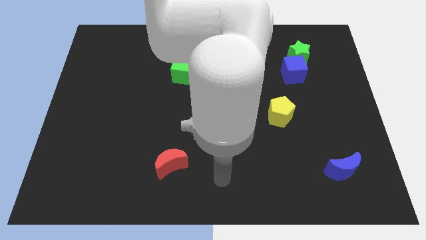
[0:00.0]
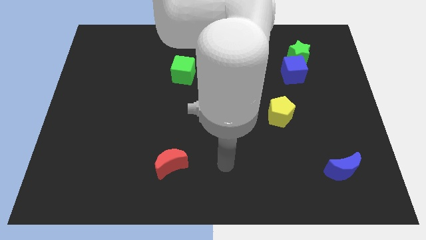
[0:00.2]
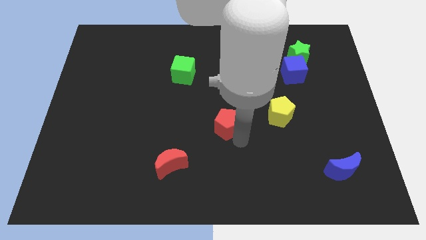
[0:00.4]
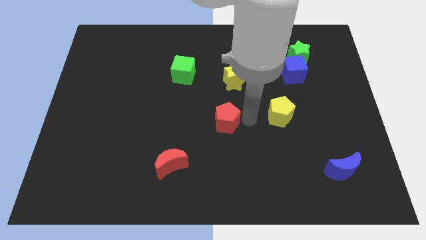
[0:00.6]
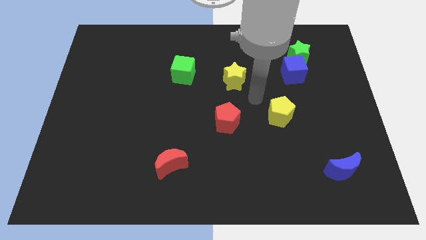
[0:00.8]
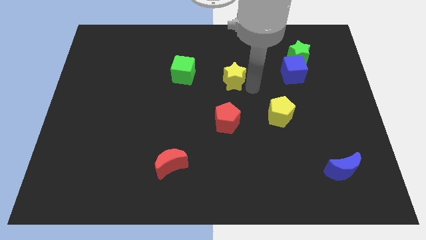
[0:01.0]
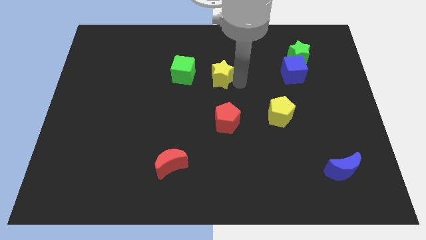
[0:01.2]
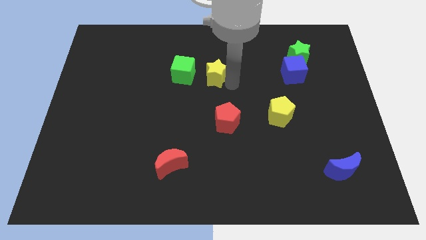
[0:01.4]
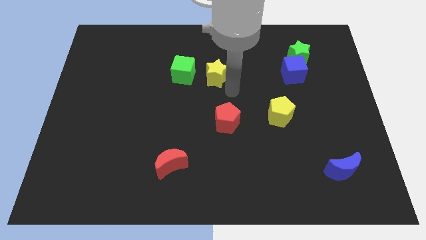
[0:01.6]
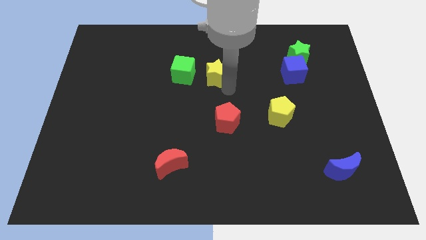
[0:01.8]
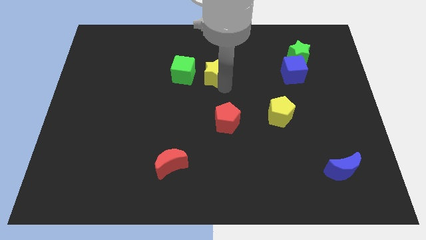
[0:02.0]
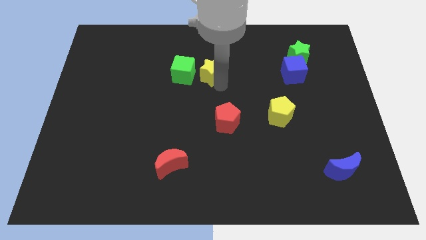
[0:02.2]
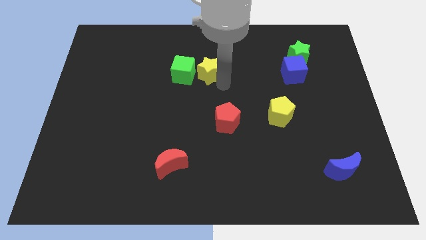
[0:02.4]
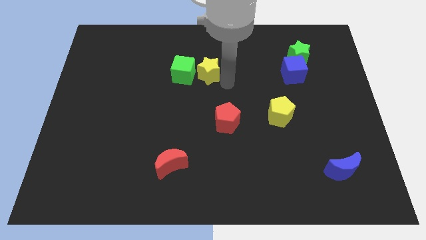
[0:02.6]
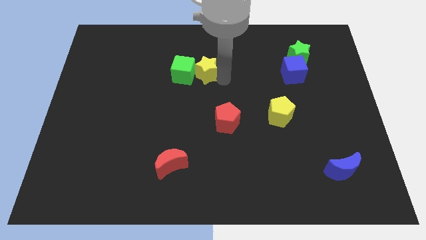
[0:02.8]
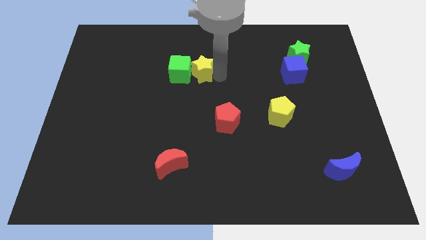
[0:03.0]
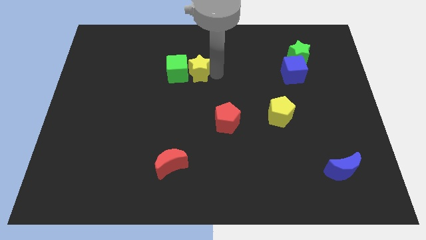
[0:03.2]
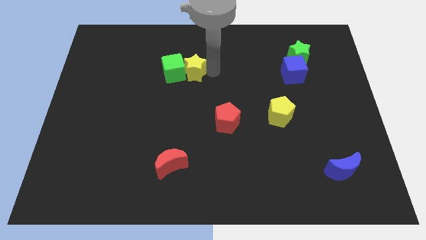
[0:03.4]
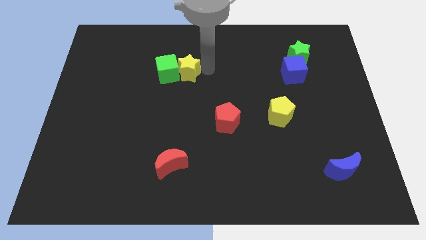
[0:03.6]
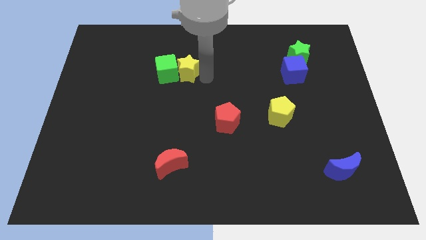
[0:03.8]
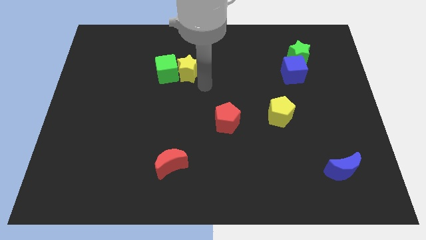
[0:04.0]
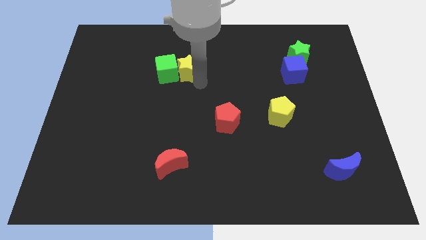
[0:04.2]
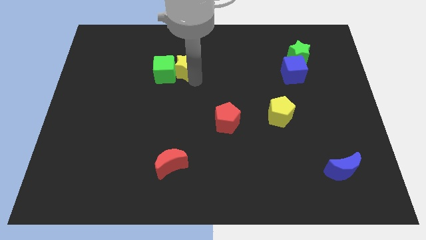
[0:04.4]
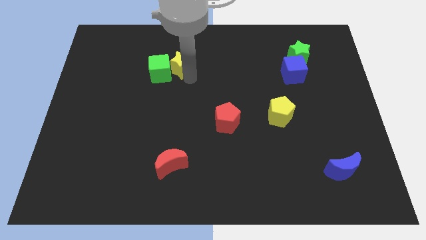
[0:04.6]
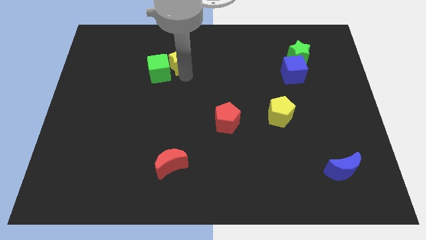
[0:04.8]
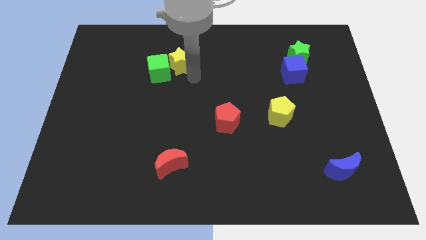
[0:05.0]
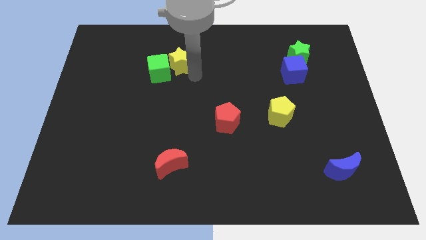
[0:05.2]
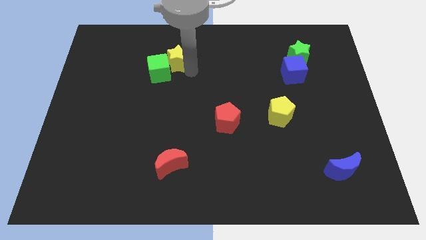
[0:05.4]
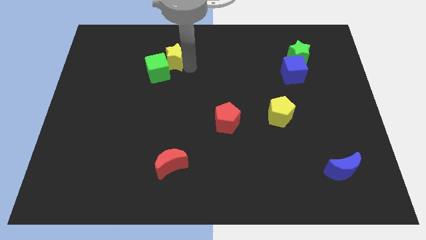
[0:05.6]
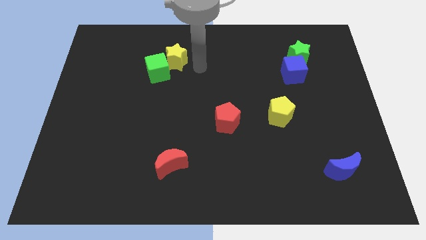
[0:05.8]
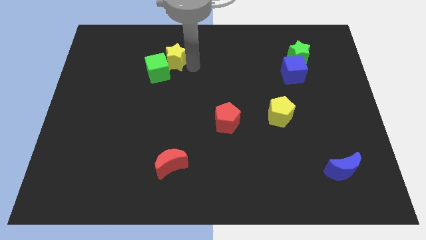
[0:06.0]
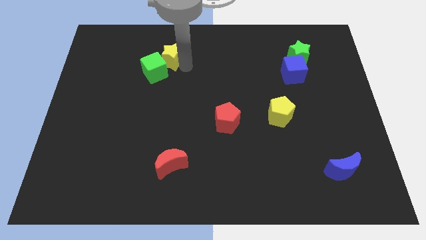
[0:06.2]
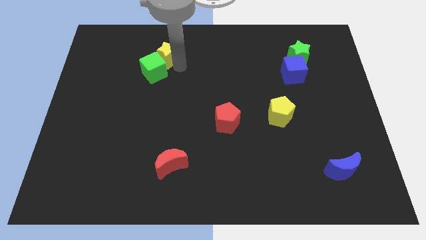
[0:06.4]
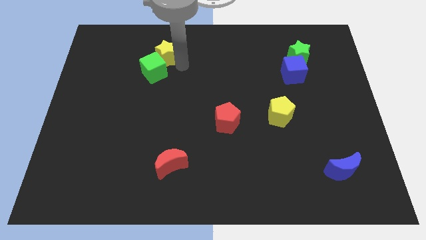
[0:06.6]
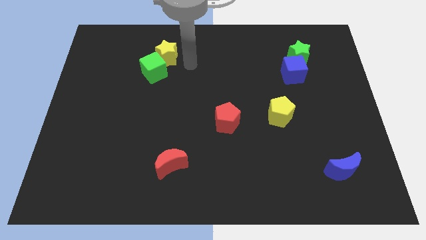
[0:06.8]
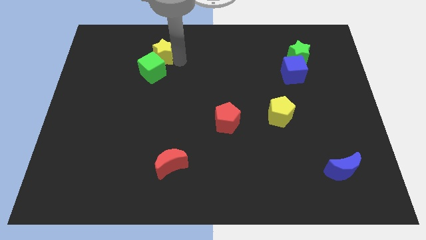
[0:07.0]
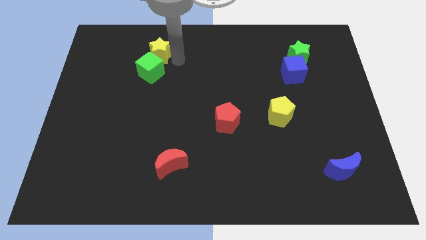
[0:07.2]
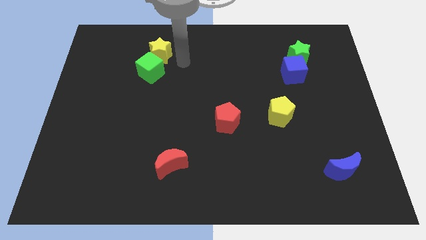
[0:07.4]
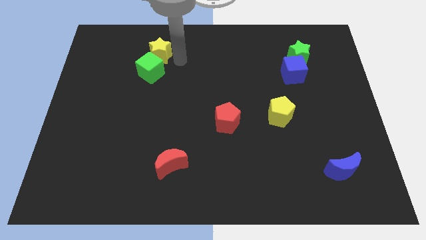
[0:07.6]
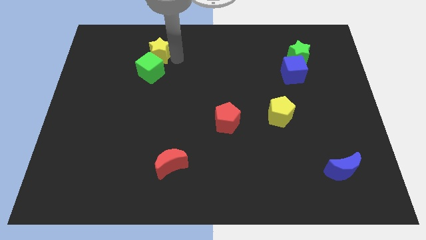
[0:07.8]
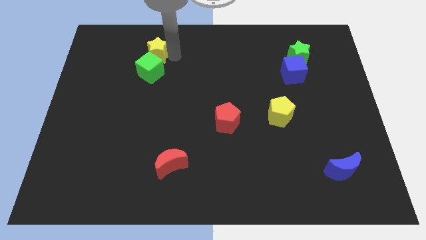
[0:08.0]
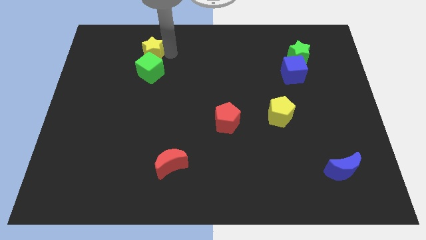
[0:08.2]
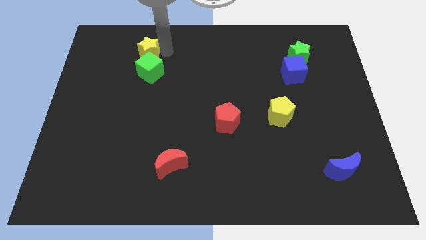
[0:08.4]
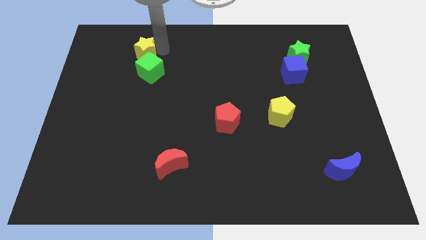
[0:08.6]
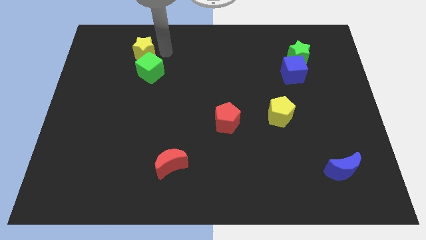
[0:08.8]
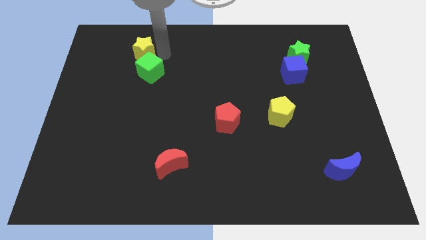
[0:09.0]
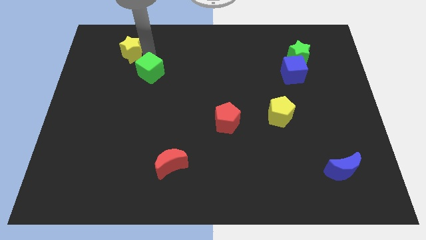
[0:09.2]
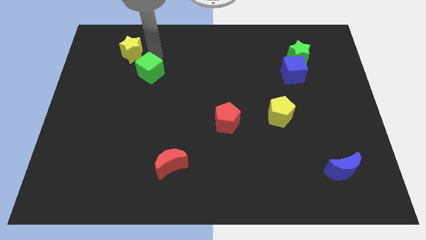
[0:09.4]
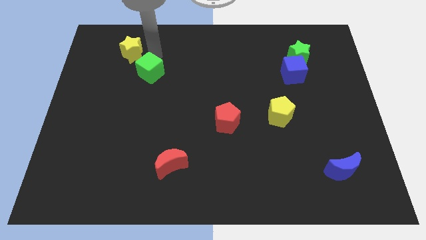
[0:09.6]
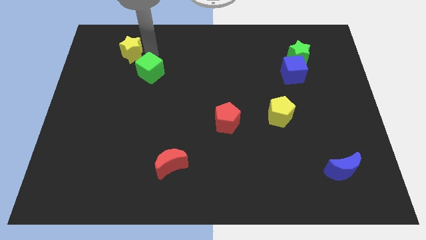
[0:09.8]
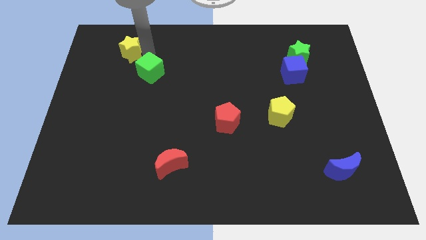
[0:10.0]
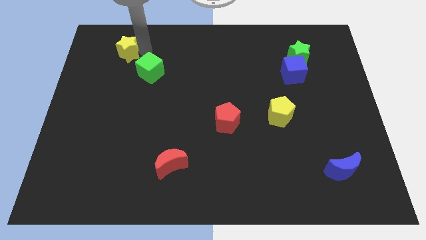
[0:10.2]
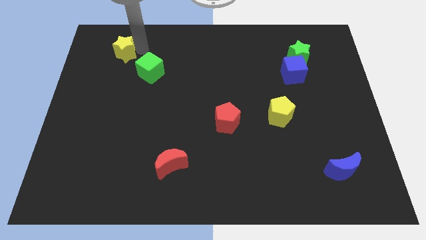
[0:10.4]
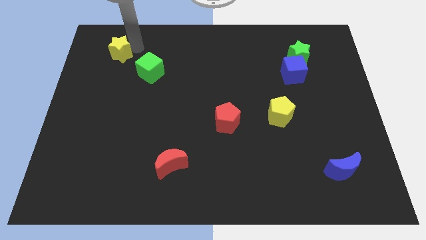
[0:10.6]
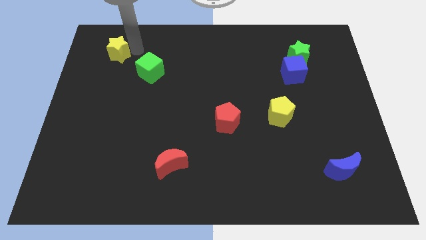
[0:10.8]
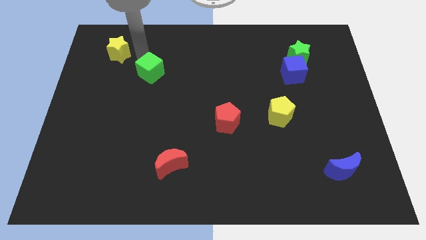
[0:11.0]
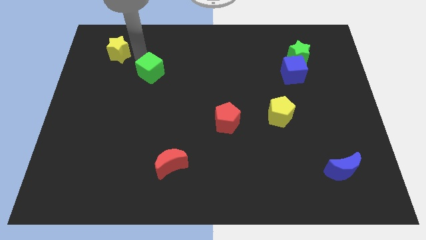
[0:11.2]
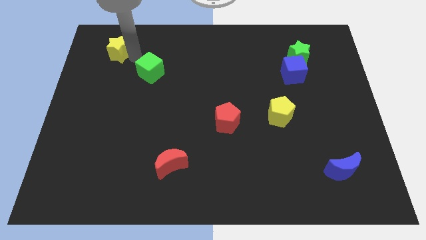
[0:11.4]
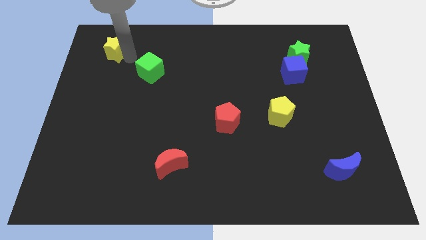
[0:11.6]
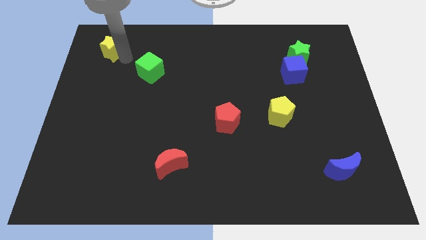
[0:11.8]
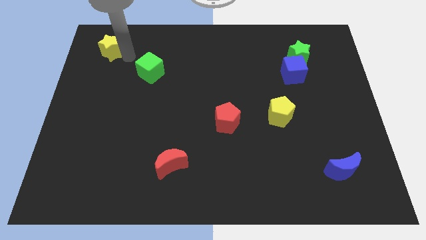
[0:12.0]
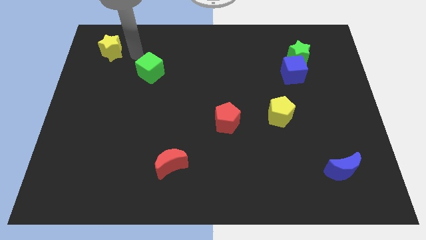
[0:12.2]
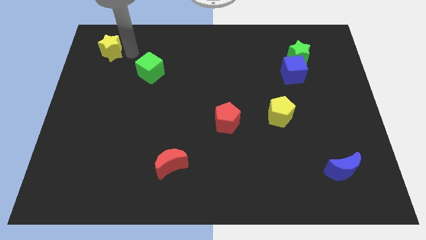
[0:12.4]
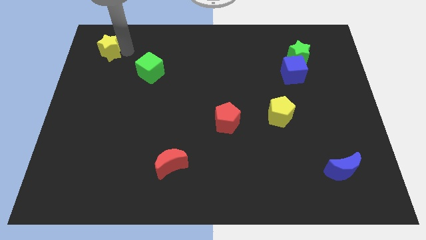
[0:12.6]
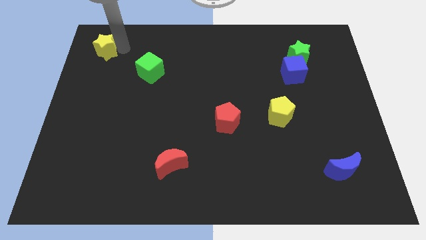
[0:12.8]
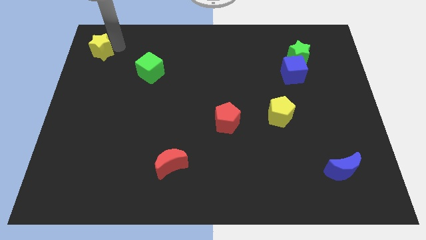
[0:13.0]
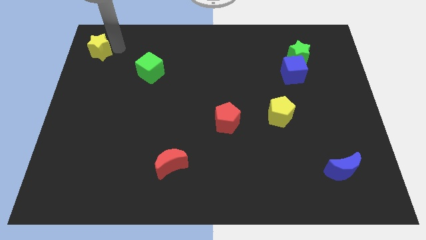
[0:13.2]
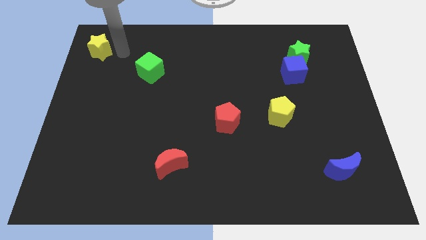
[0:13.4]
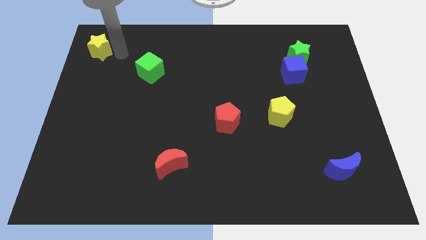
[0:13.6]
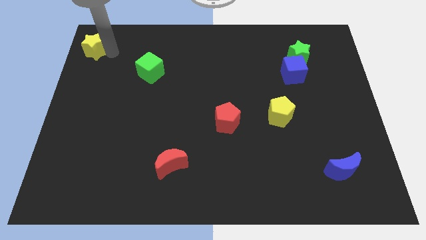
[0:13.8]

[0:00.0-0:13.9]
slide the yellow star to the top left
